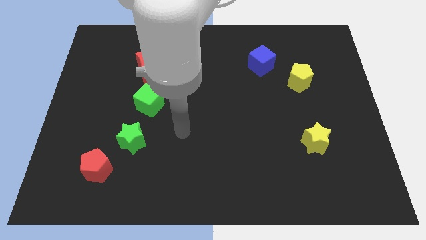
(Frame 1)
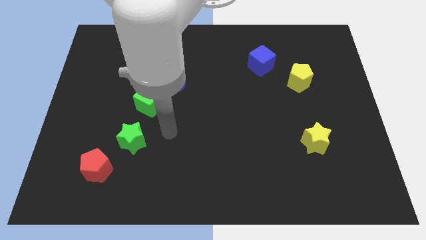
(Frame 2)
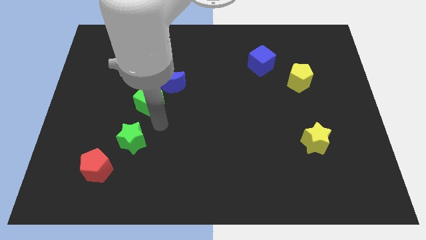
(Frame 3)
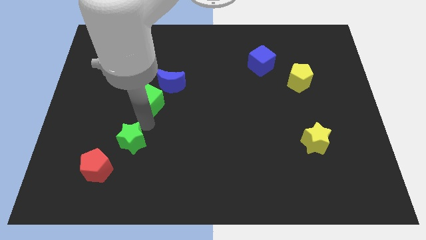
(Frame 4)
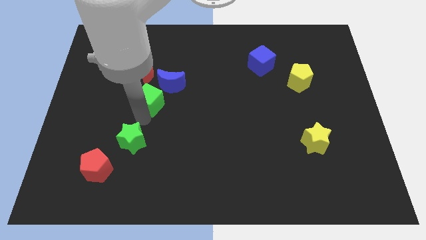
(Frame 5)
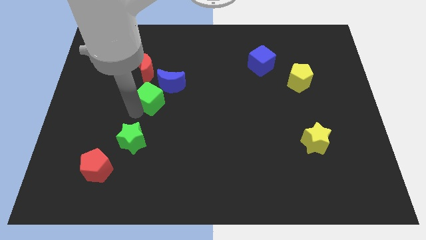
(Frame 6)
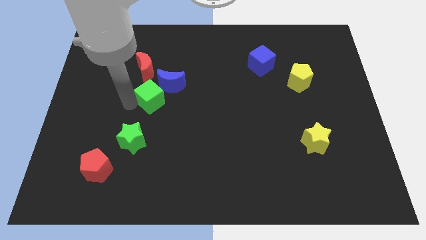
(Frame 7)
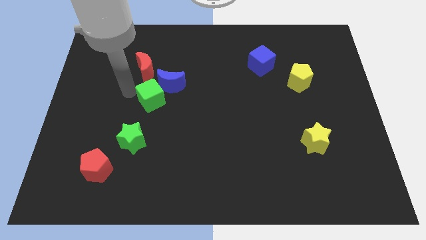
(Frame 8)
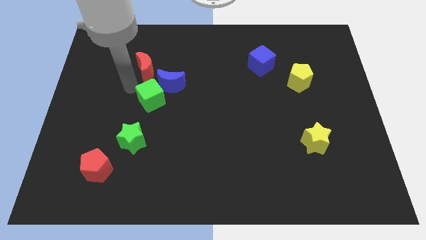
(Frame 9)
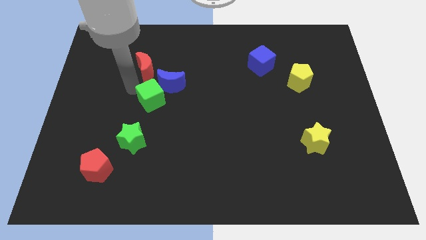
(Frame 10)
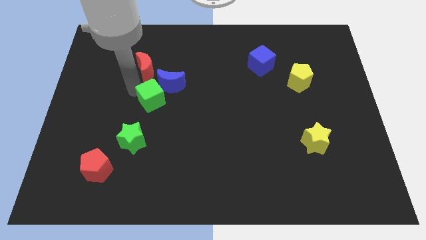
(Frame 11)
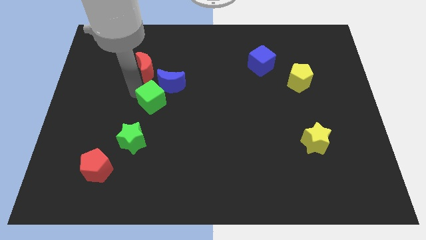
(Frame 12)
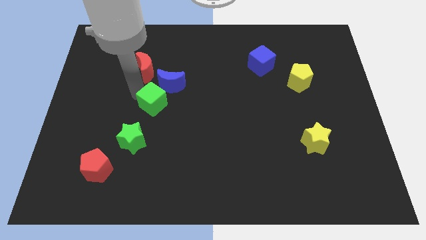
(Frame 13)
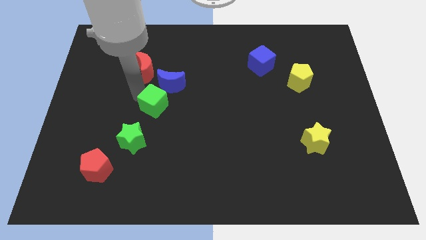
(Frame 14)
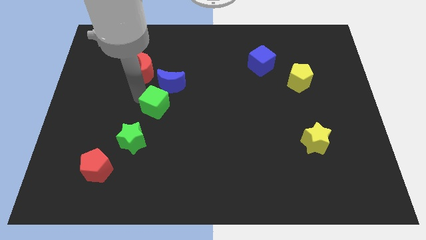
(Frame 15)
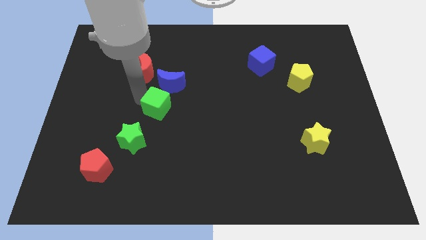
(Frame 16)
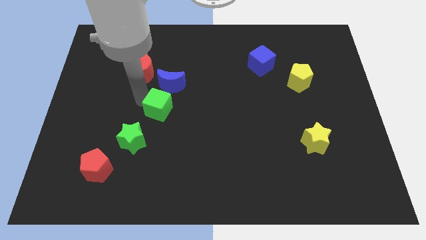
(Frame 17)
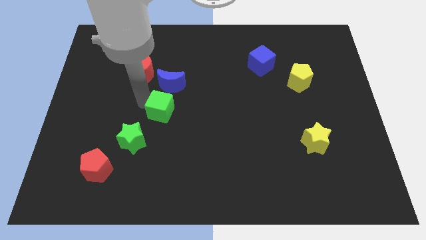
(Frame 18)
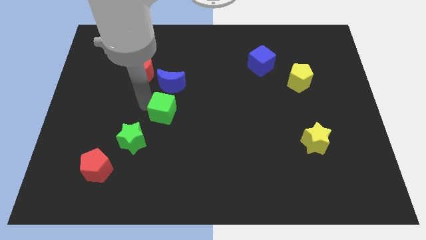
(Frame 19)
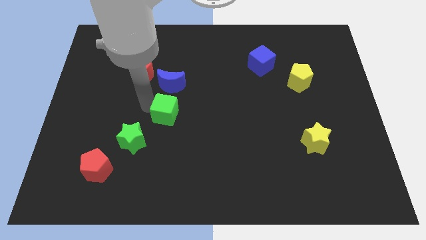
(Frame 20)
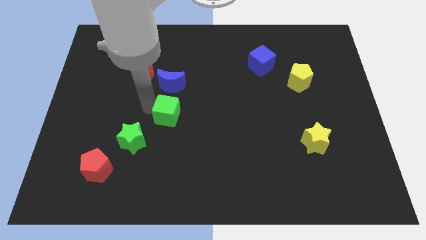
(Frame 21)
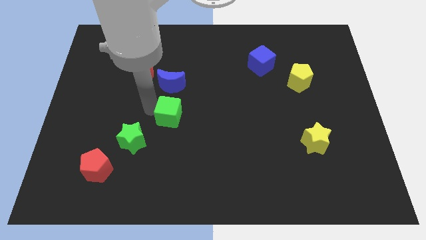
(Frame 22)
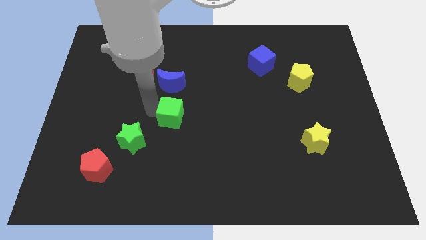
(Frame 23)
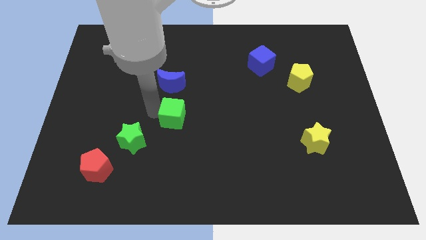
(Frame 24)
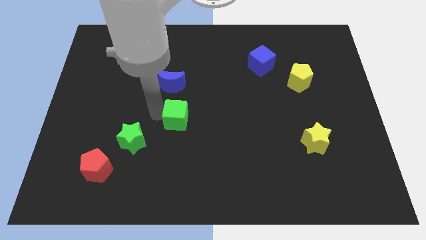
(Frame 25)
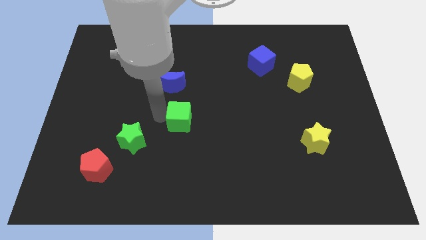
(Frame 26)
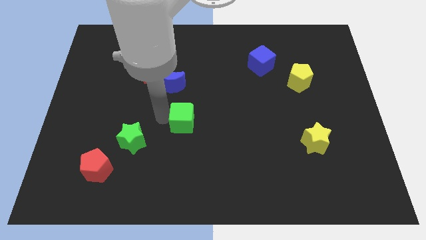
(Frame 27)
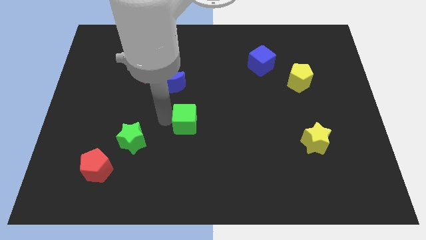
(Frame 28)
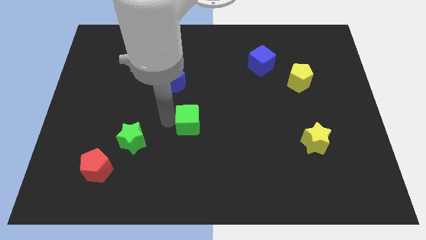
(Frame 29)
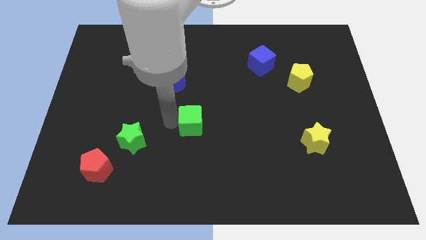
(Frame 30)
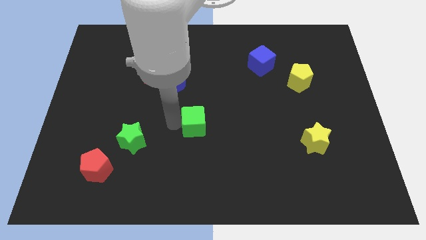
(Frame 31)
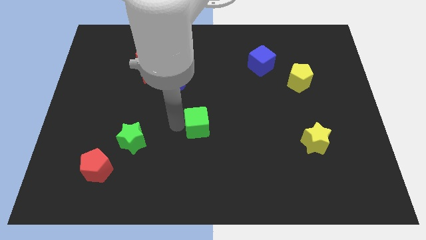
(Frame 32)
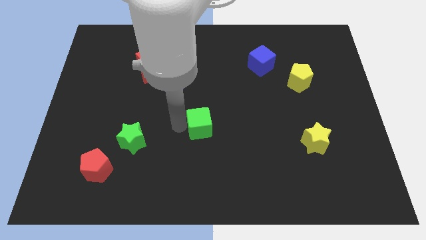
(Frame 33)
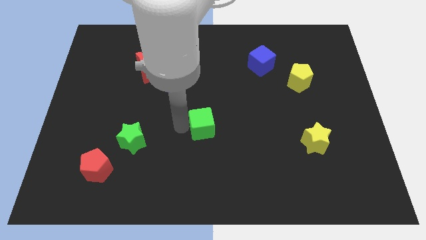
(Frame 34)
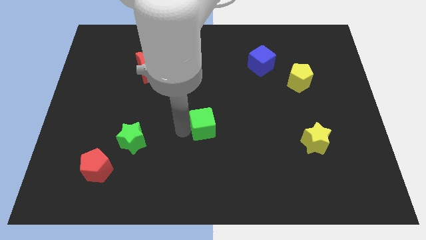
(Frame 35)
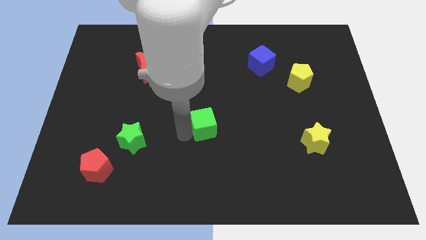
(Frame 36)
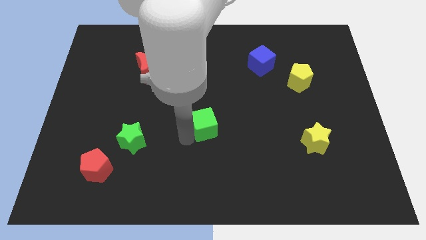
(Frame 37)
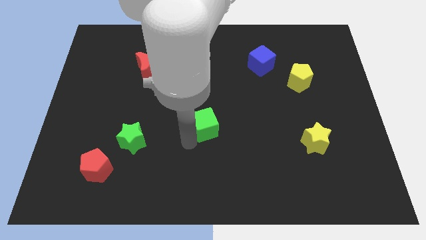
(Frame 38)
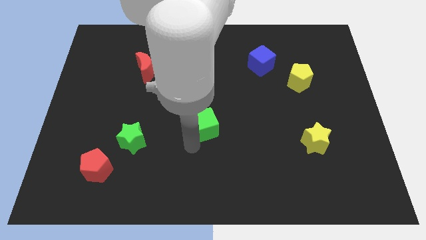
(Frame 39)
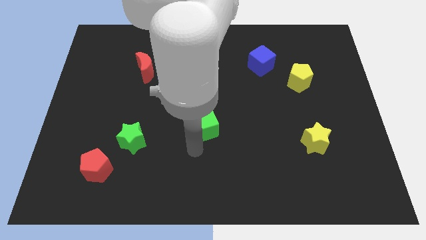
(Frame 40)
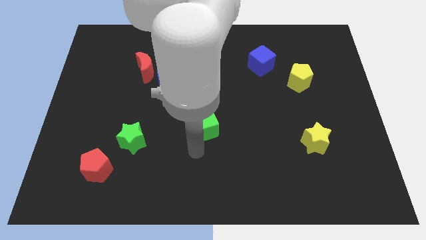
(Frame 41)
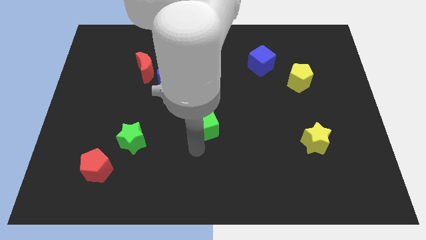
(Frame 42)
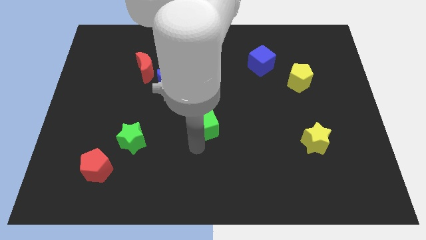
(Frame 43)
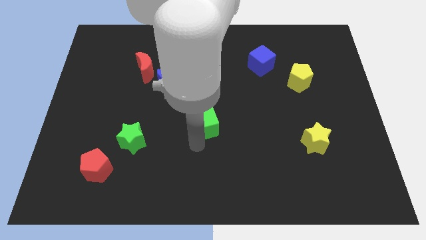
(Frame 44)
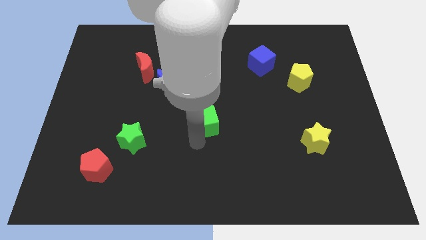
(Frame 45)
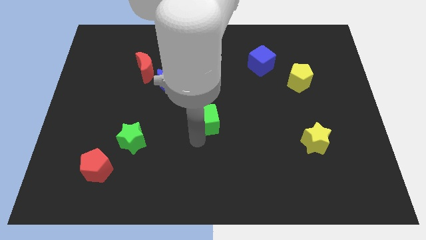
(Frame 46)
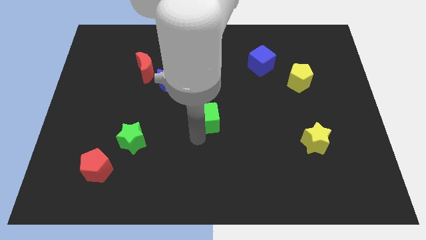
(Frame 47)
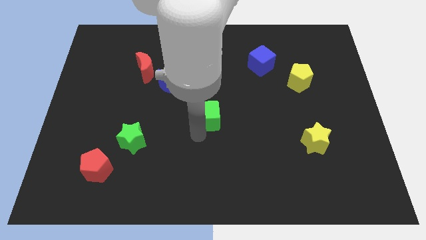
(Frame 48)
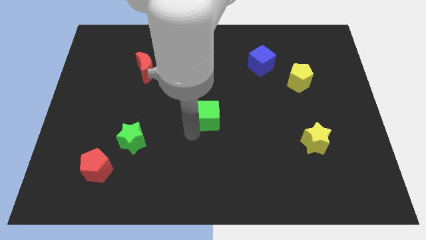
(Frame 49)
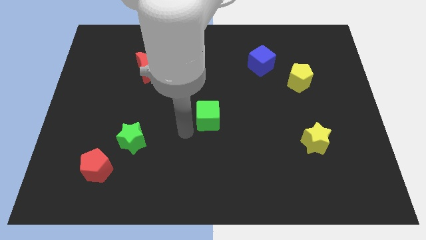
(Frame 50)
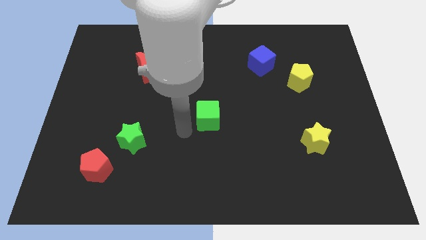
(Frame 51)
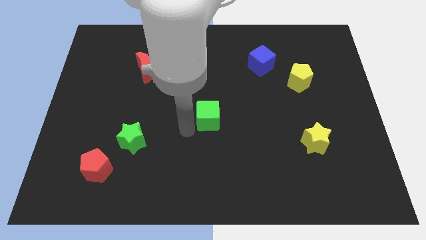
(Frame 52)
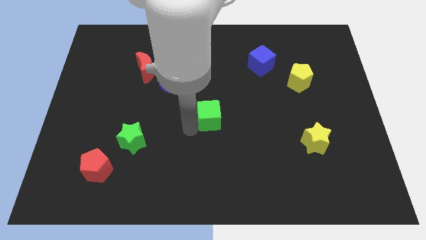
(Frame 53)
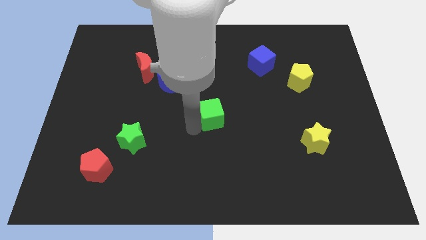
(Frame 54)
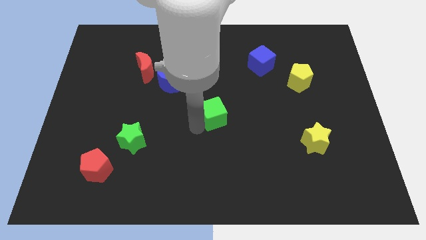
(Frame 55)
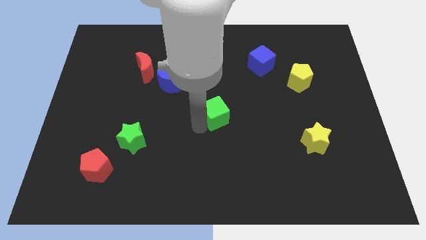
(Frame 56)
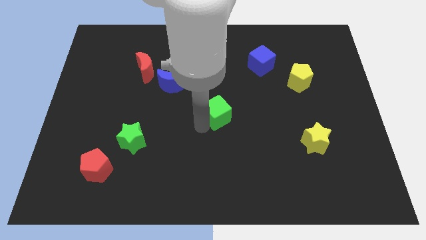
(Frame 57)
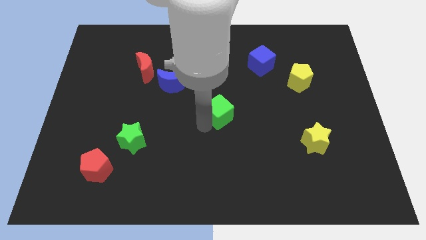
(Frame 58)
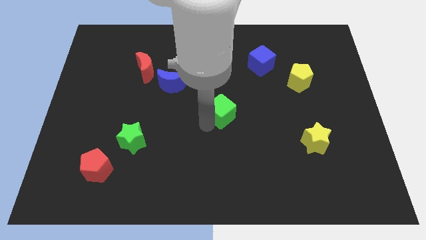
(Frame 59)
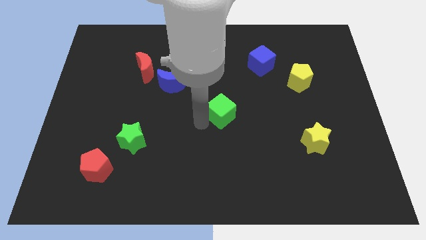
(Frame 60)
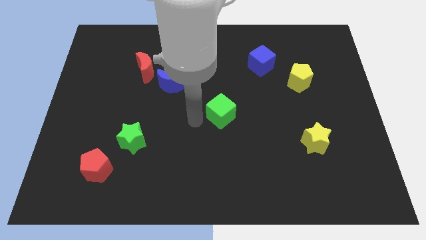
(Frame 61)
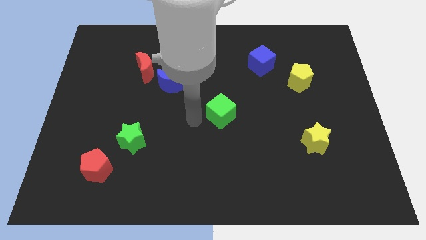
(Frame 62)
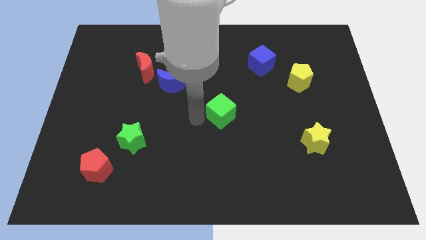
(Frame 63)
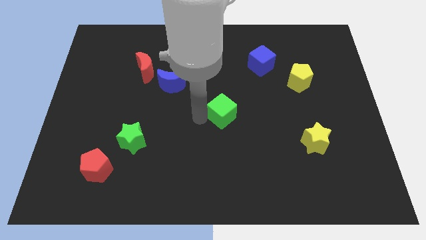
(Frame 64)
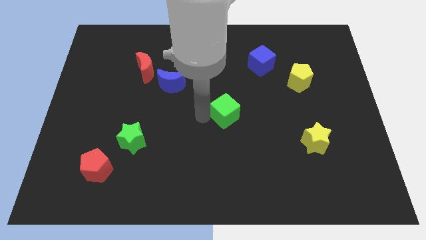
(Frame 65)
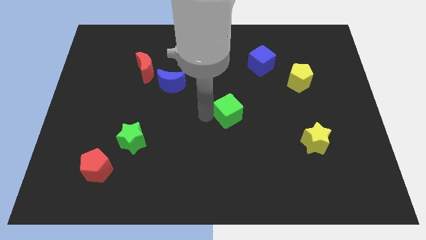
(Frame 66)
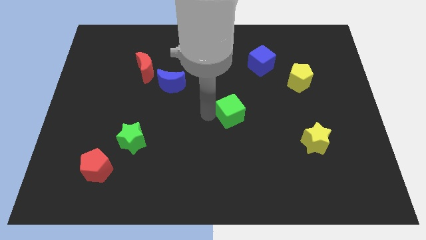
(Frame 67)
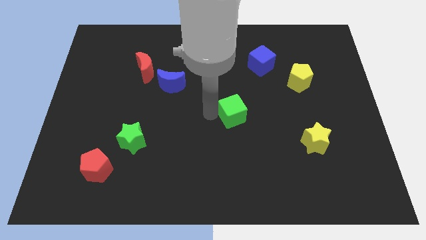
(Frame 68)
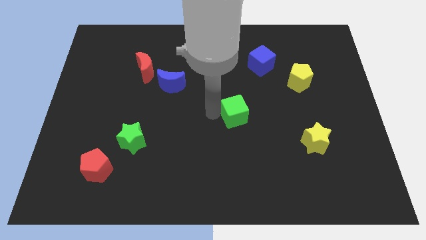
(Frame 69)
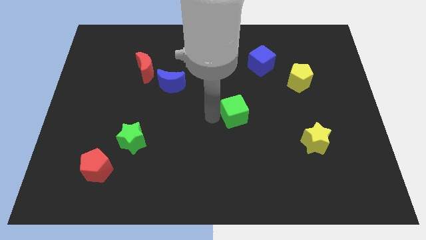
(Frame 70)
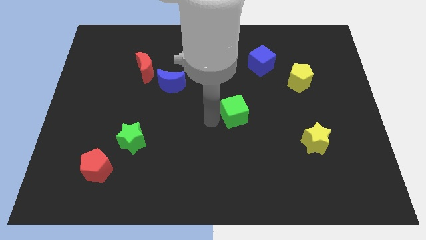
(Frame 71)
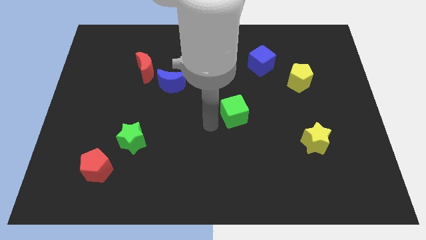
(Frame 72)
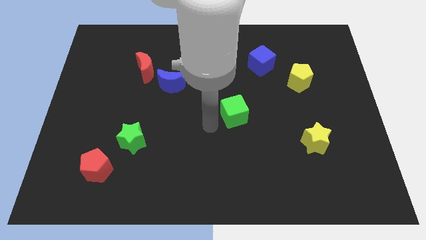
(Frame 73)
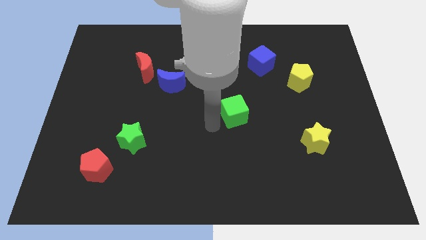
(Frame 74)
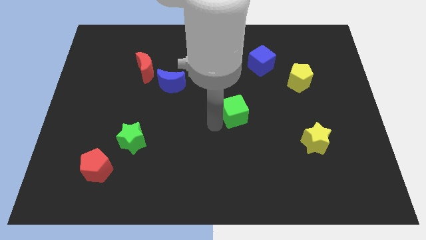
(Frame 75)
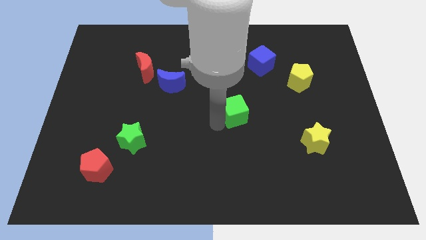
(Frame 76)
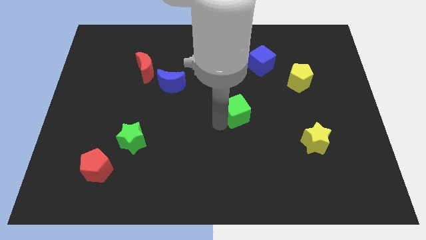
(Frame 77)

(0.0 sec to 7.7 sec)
move the green cube to the right

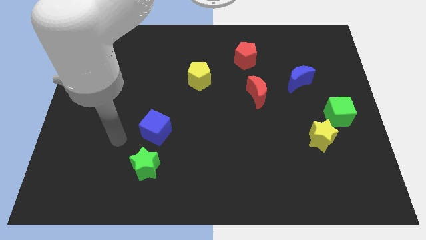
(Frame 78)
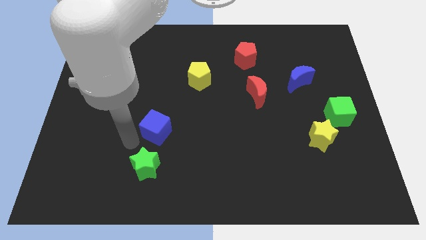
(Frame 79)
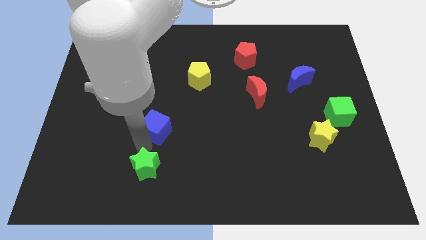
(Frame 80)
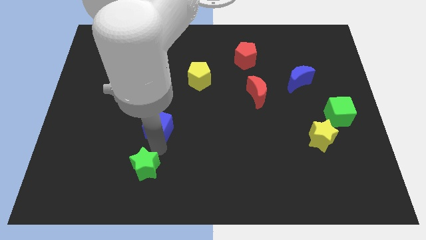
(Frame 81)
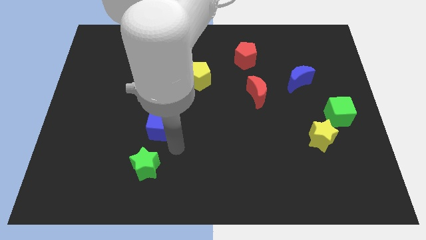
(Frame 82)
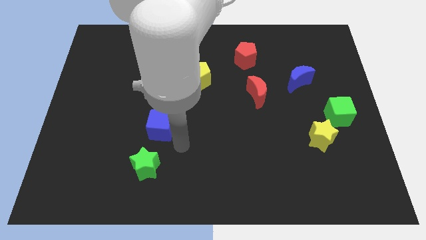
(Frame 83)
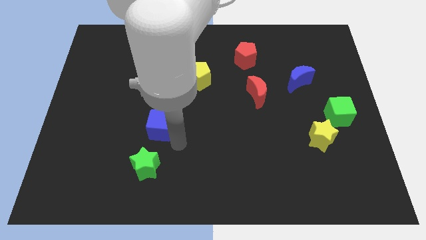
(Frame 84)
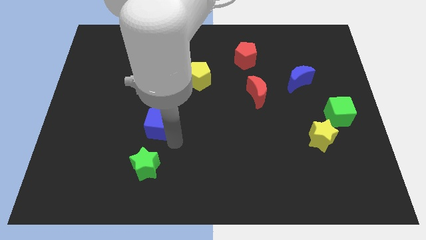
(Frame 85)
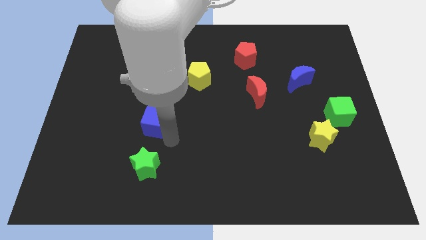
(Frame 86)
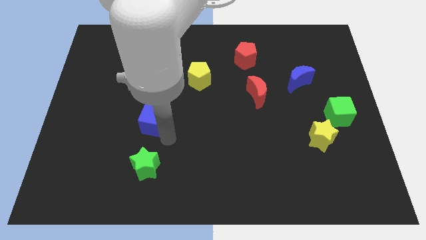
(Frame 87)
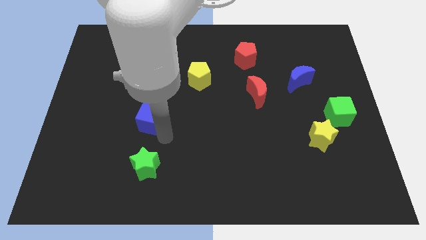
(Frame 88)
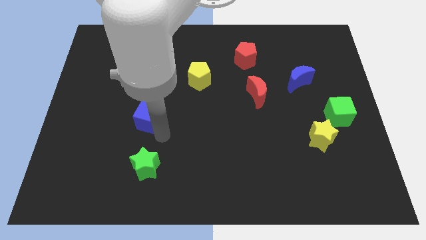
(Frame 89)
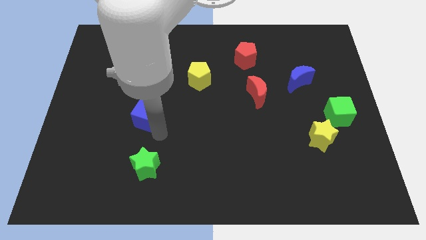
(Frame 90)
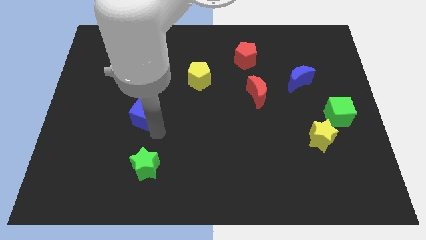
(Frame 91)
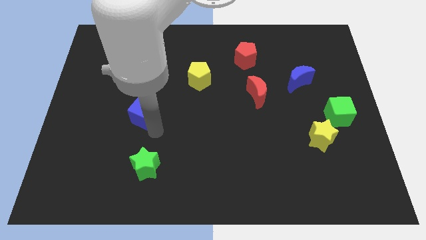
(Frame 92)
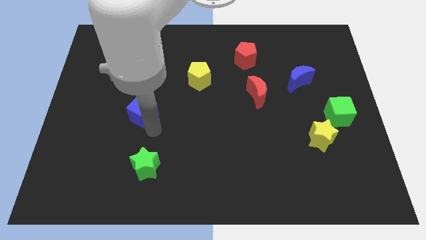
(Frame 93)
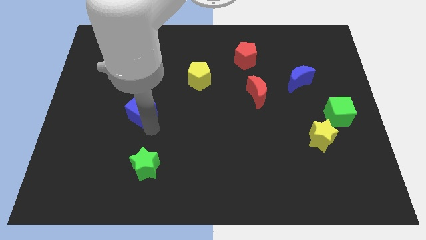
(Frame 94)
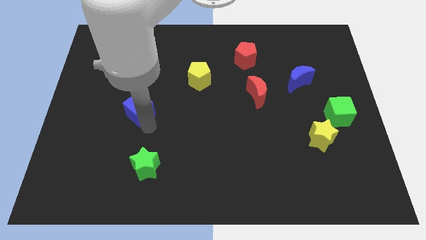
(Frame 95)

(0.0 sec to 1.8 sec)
slightly push the blue cube up and then to the left
